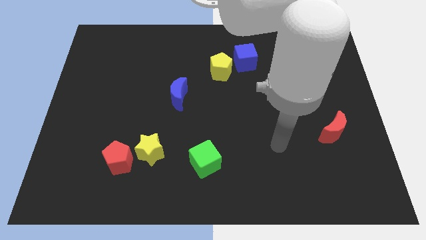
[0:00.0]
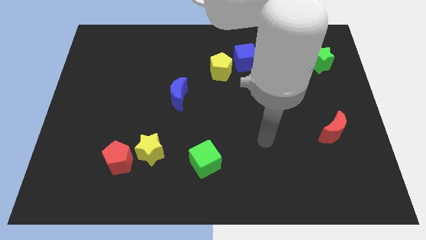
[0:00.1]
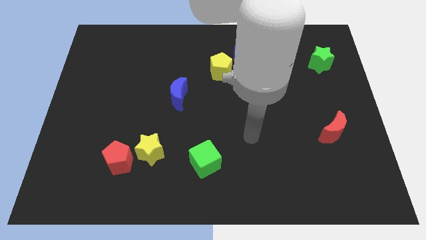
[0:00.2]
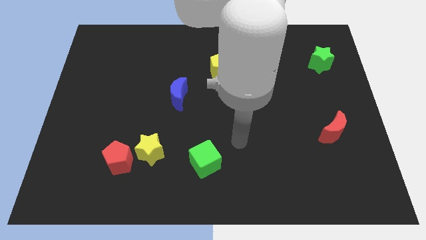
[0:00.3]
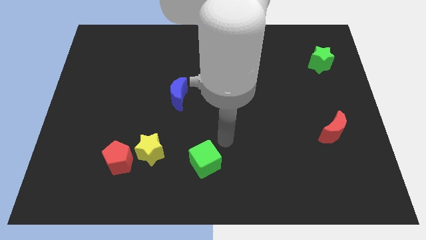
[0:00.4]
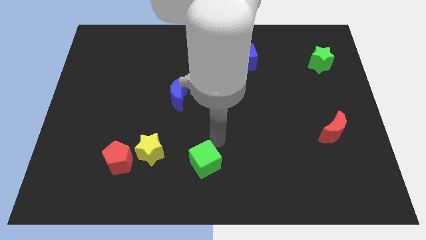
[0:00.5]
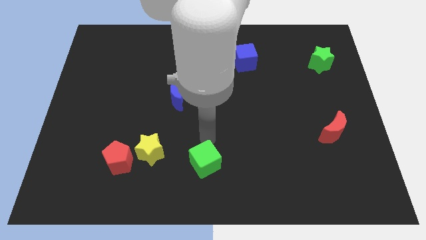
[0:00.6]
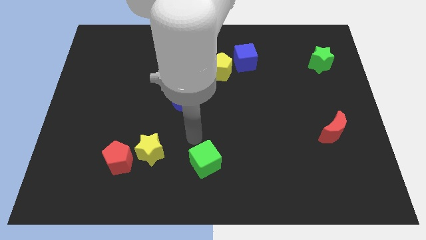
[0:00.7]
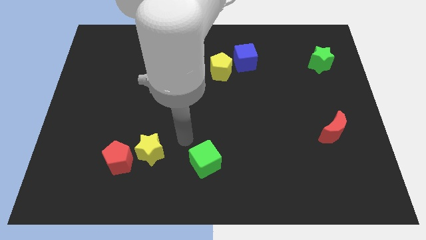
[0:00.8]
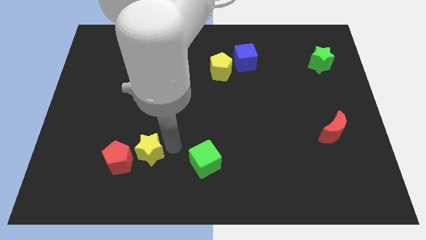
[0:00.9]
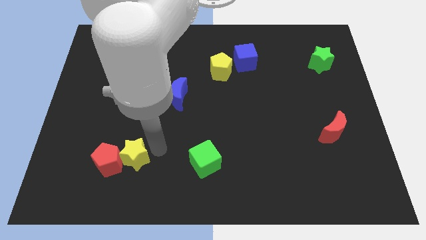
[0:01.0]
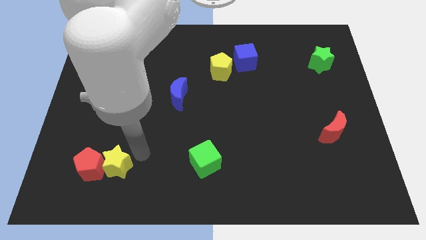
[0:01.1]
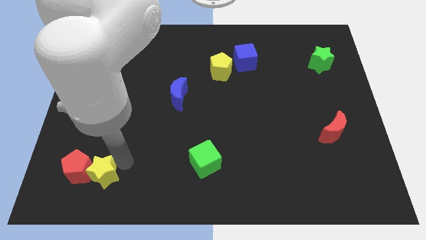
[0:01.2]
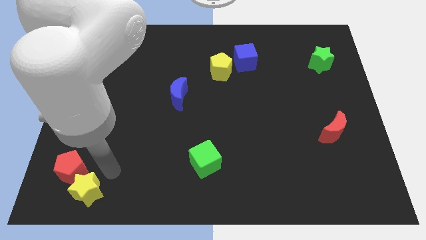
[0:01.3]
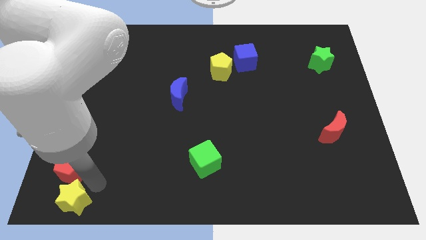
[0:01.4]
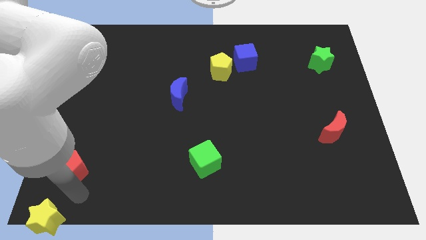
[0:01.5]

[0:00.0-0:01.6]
separate the red pentagon from the yellow star

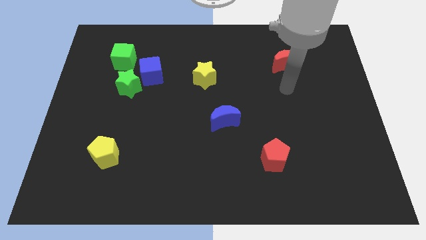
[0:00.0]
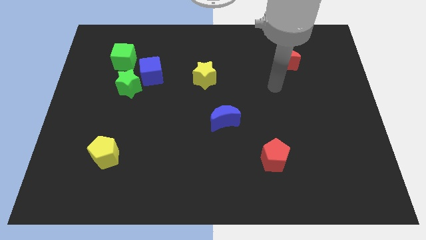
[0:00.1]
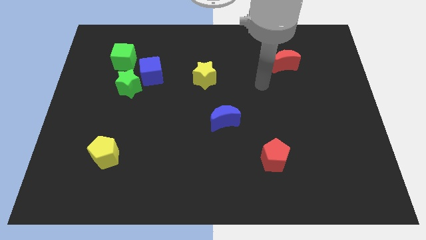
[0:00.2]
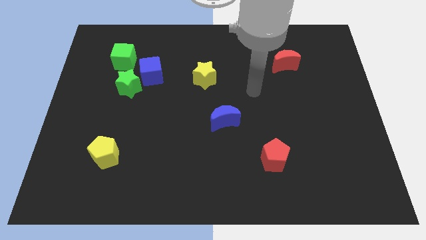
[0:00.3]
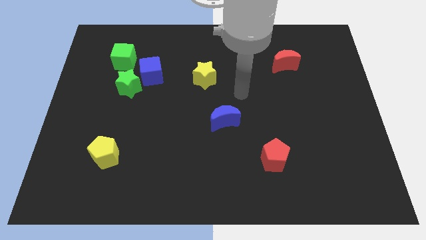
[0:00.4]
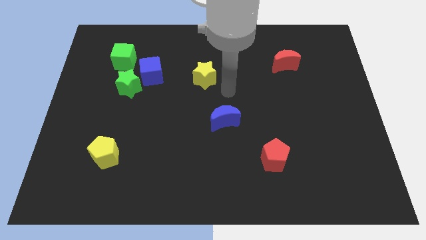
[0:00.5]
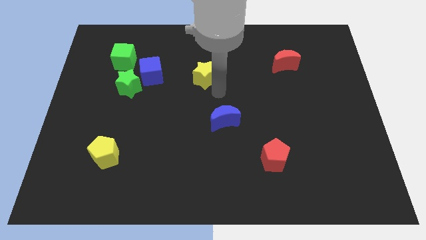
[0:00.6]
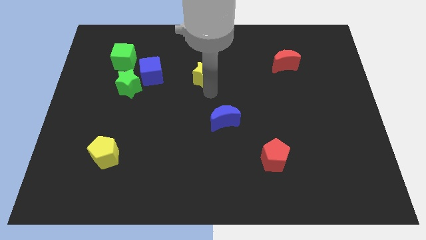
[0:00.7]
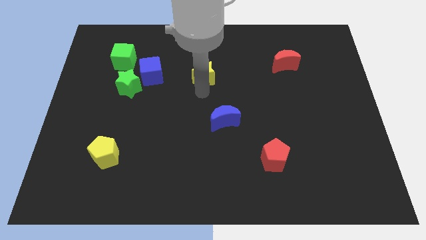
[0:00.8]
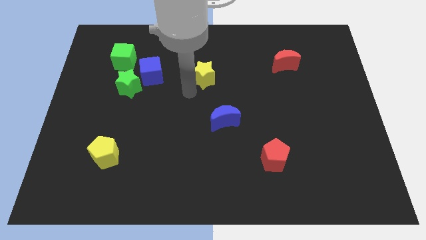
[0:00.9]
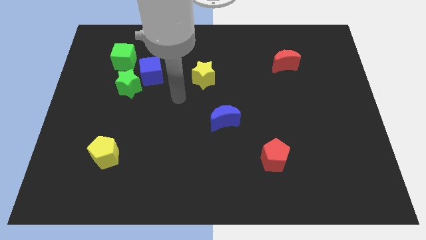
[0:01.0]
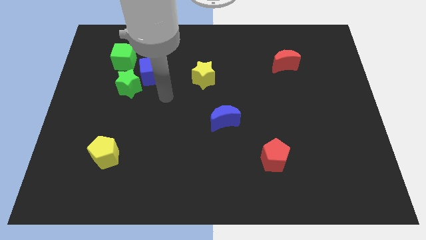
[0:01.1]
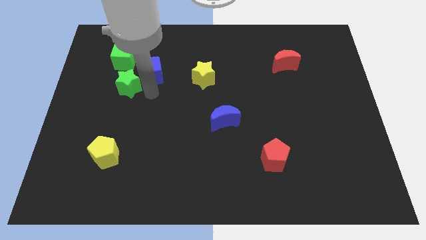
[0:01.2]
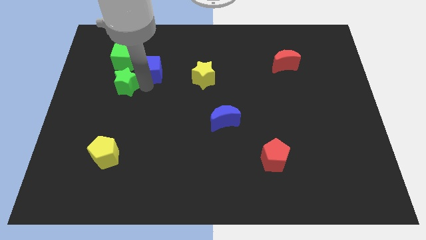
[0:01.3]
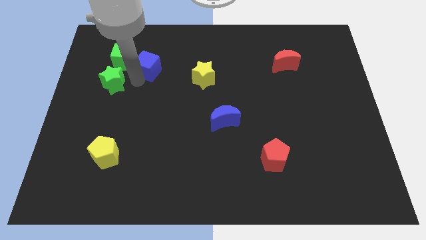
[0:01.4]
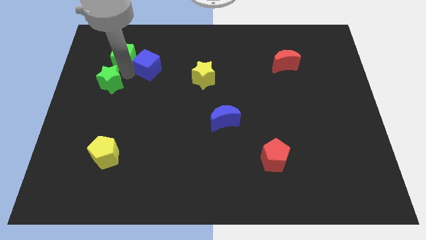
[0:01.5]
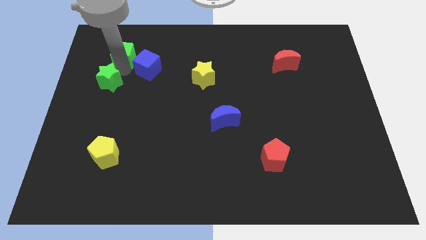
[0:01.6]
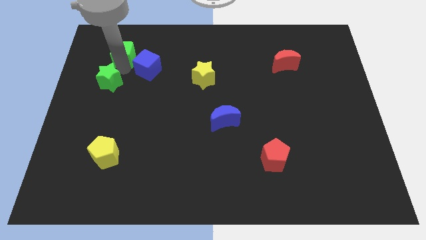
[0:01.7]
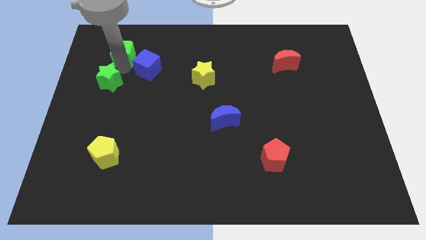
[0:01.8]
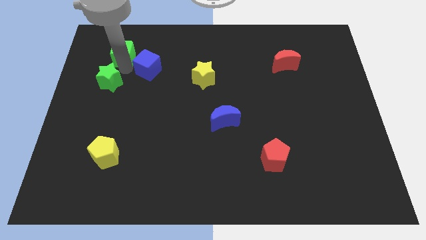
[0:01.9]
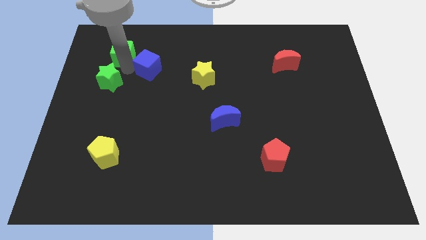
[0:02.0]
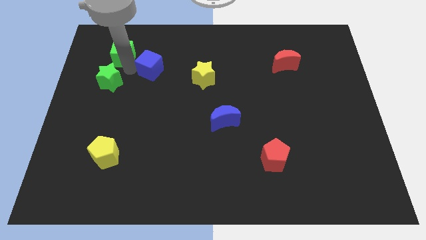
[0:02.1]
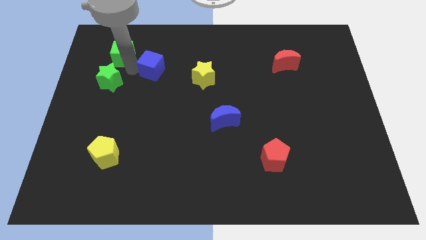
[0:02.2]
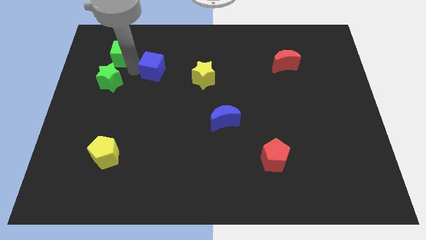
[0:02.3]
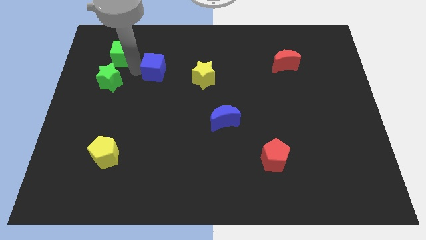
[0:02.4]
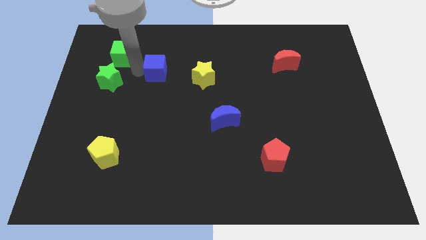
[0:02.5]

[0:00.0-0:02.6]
move the blue cube away from the green star and green cube

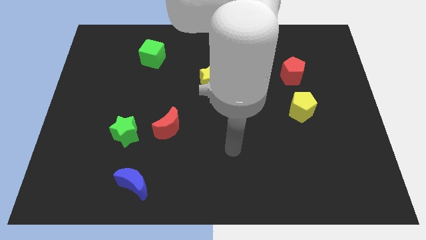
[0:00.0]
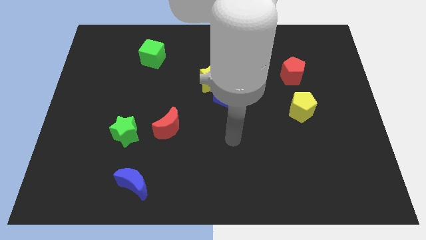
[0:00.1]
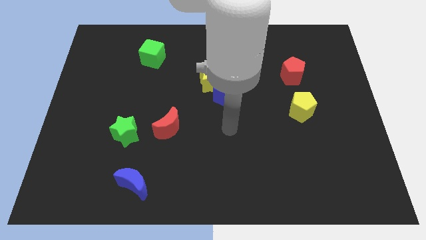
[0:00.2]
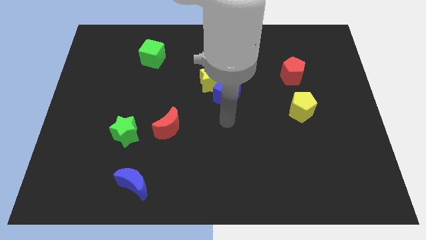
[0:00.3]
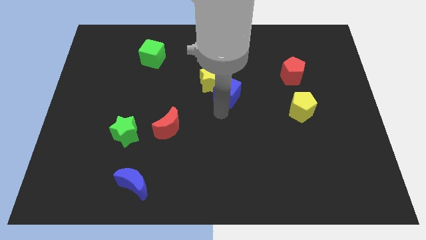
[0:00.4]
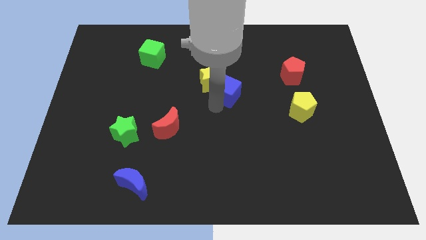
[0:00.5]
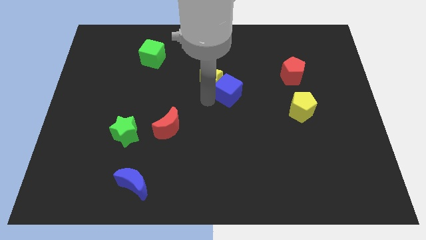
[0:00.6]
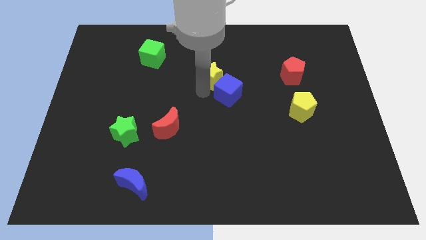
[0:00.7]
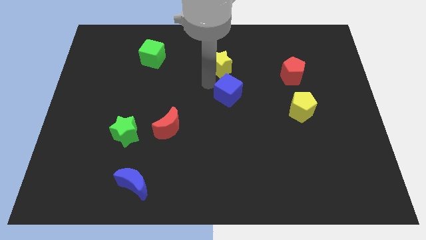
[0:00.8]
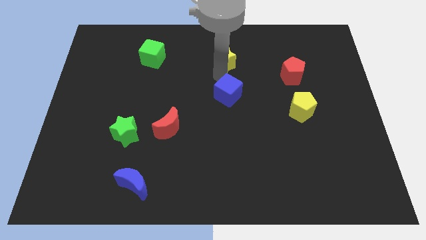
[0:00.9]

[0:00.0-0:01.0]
separate the blue cube from the yellow star

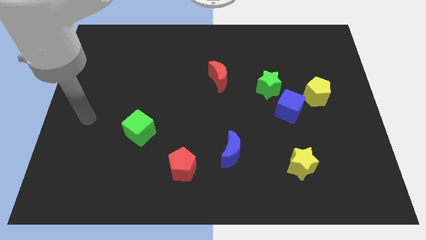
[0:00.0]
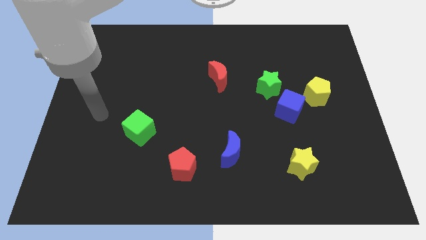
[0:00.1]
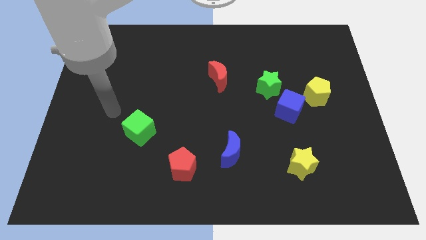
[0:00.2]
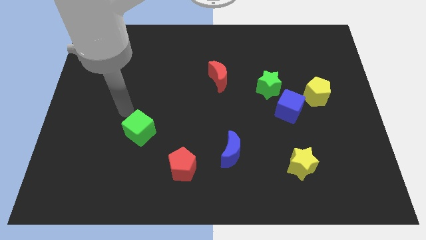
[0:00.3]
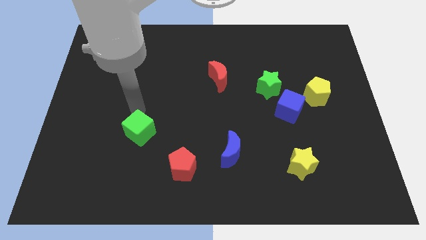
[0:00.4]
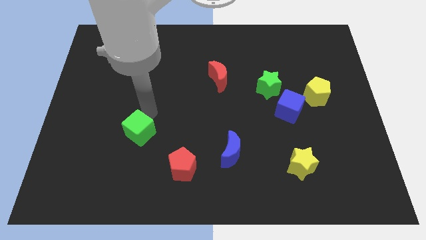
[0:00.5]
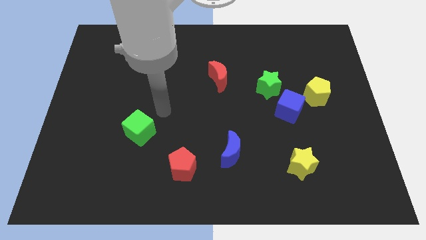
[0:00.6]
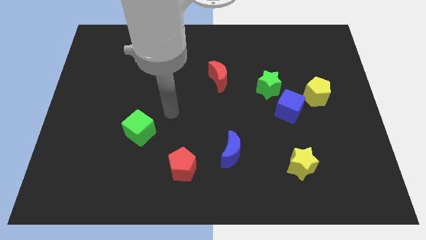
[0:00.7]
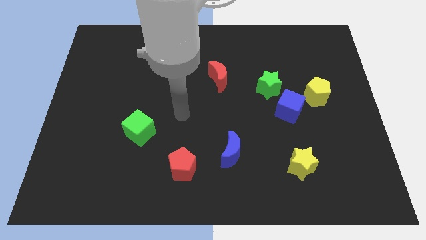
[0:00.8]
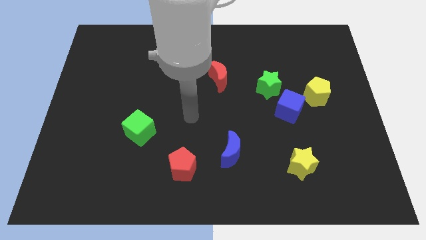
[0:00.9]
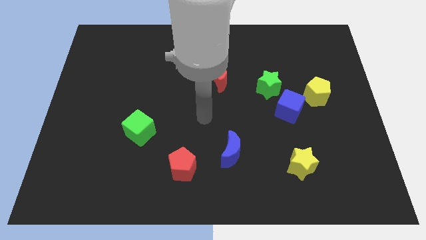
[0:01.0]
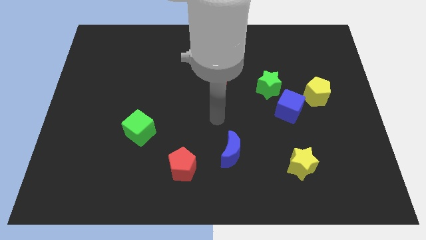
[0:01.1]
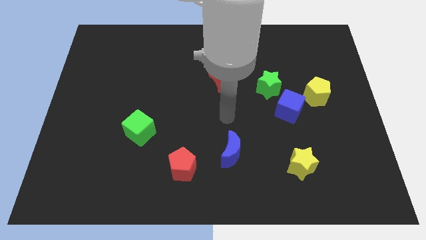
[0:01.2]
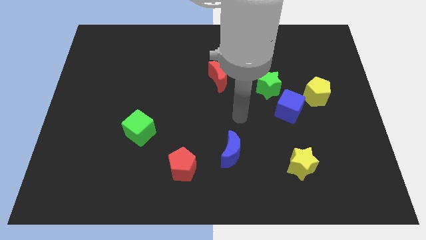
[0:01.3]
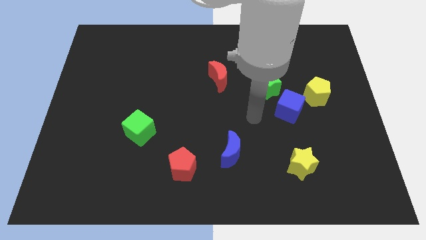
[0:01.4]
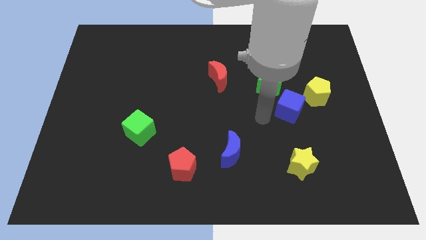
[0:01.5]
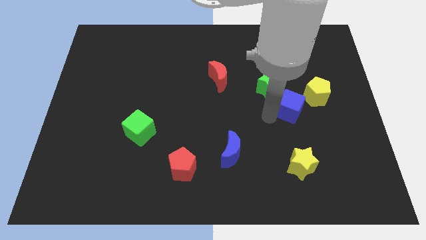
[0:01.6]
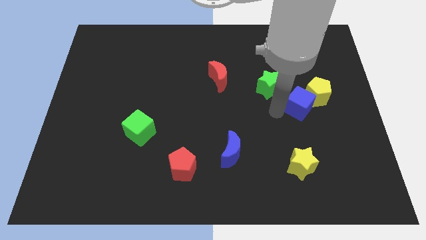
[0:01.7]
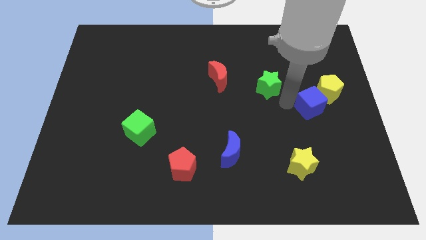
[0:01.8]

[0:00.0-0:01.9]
separate the green star from the blue cube

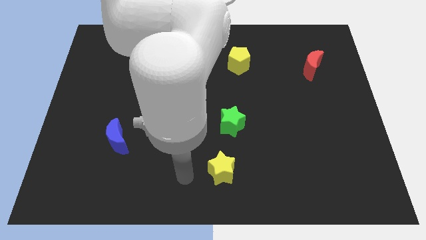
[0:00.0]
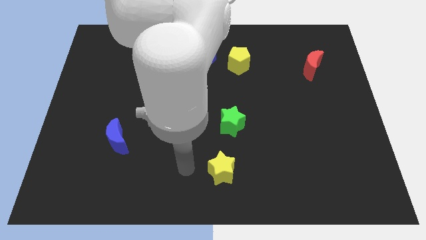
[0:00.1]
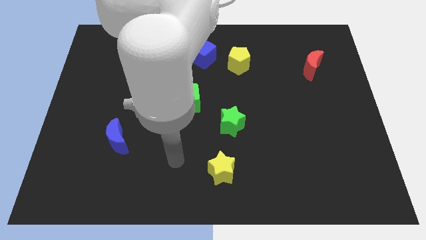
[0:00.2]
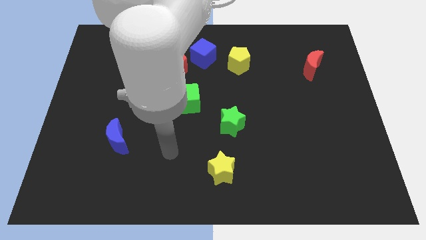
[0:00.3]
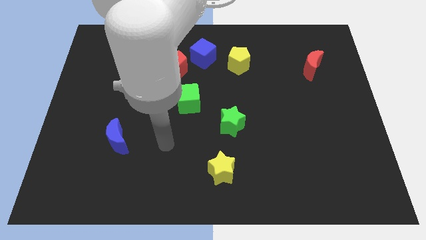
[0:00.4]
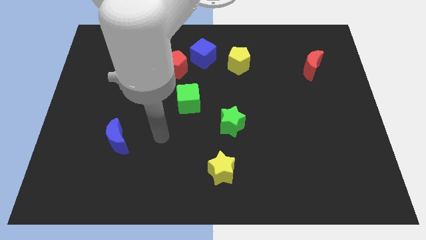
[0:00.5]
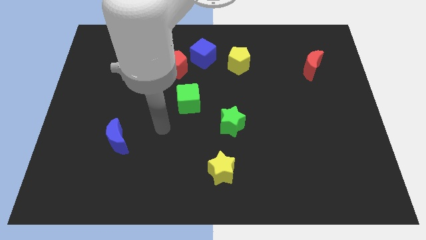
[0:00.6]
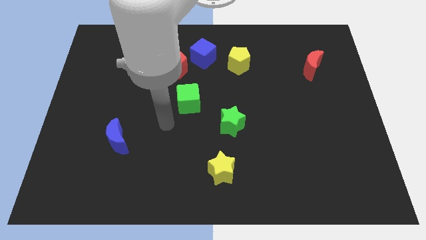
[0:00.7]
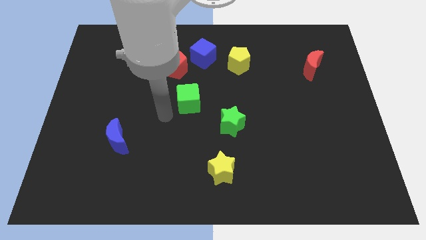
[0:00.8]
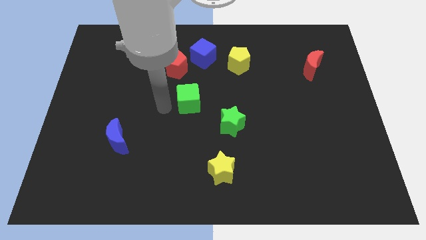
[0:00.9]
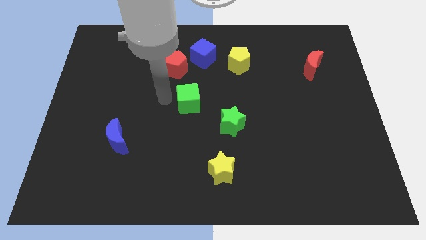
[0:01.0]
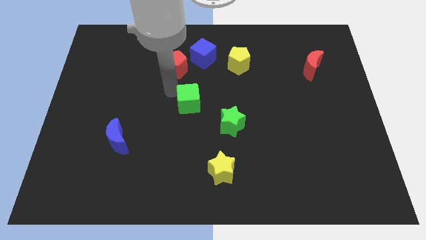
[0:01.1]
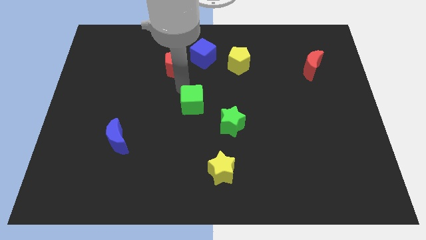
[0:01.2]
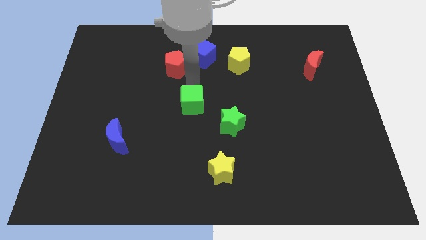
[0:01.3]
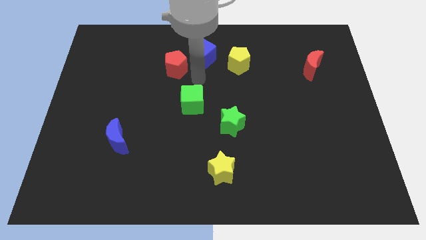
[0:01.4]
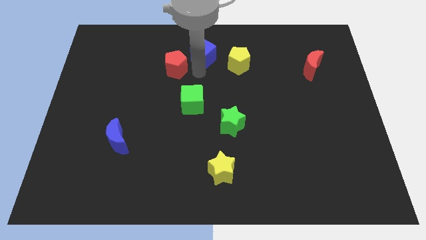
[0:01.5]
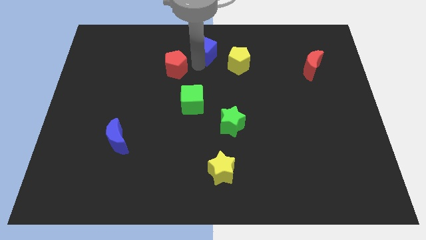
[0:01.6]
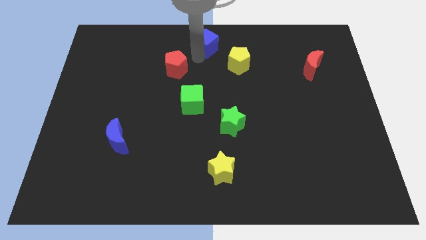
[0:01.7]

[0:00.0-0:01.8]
pull the red pentagon apart from the blue cube

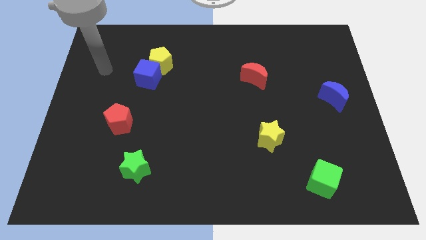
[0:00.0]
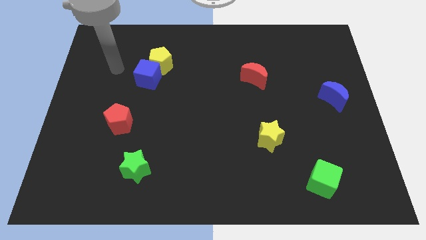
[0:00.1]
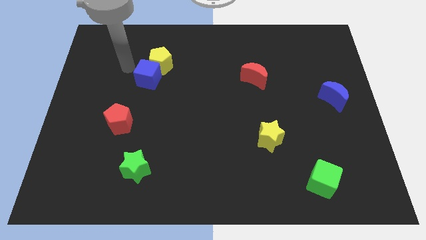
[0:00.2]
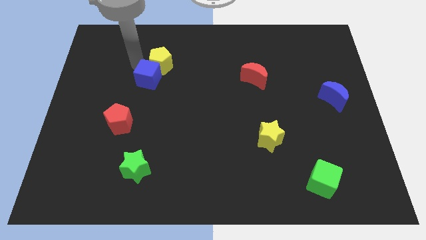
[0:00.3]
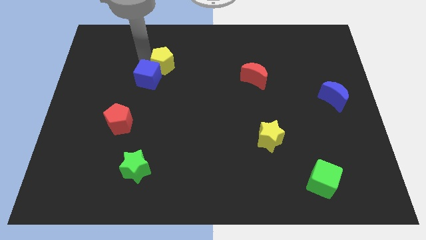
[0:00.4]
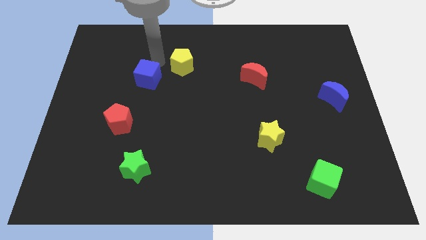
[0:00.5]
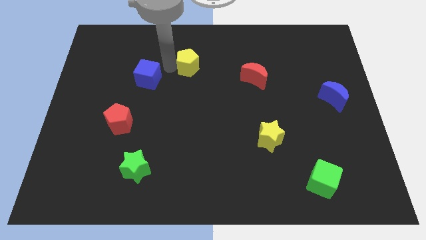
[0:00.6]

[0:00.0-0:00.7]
move the blue cube away from the yellow pentagon
